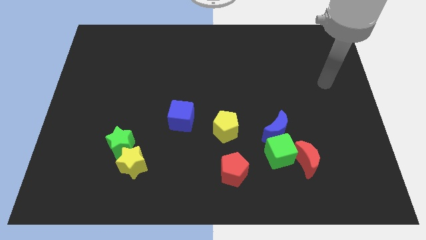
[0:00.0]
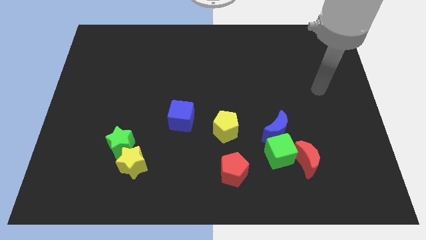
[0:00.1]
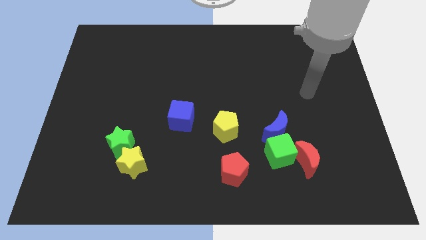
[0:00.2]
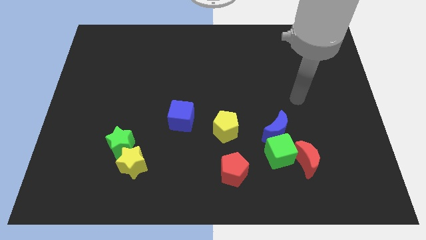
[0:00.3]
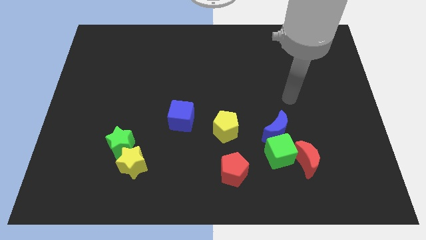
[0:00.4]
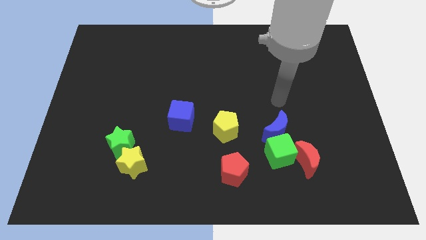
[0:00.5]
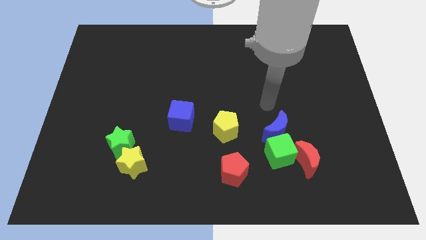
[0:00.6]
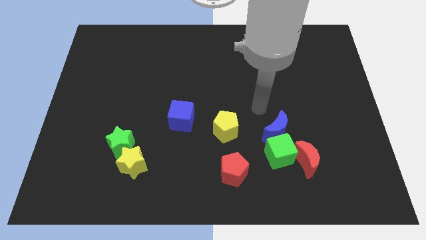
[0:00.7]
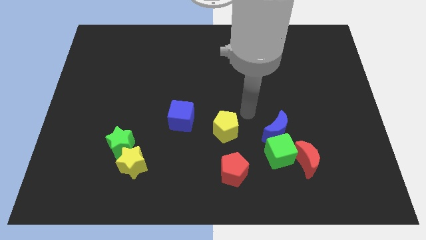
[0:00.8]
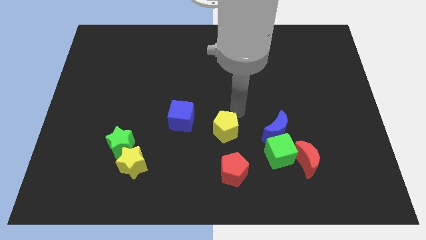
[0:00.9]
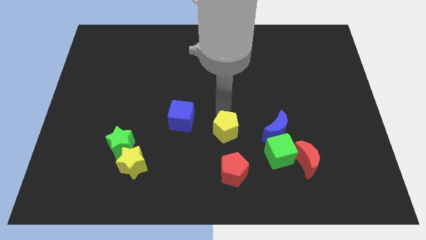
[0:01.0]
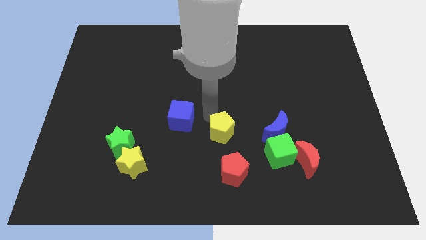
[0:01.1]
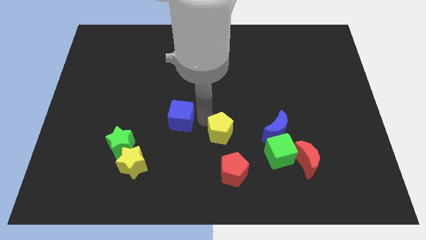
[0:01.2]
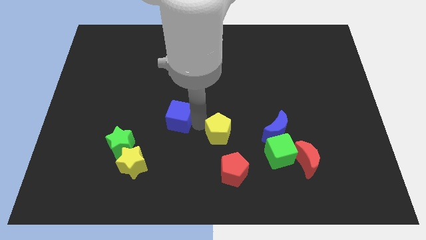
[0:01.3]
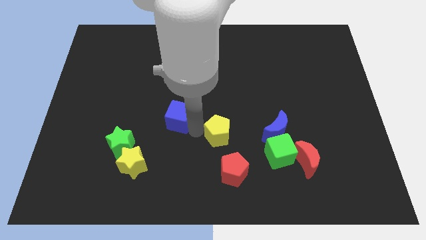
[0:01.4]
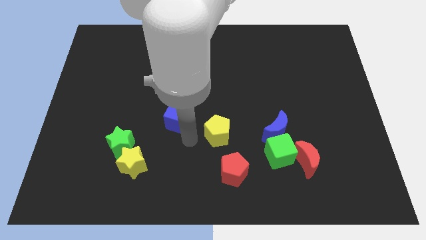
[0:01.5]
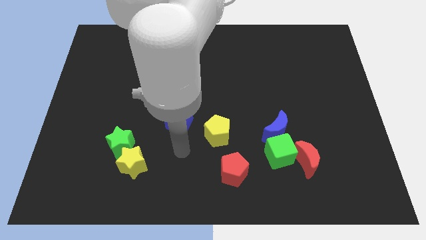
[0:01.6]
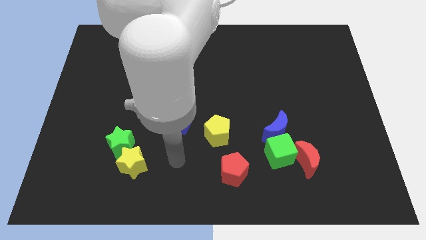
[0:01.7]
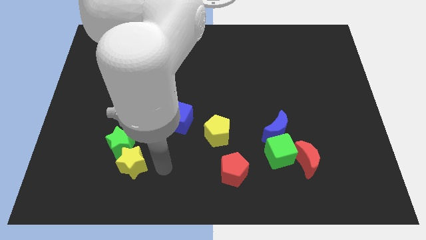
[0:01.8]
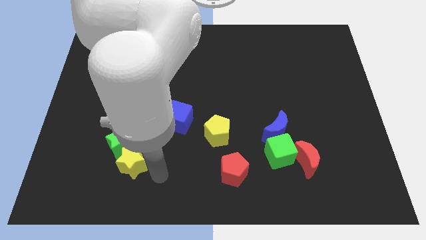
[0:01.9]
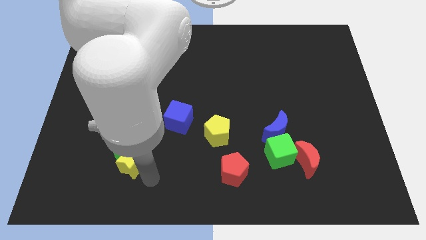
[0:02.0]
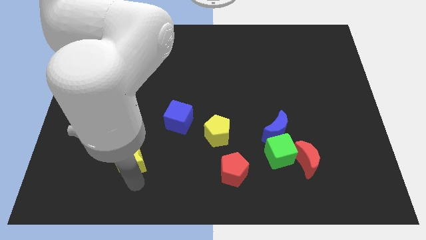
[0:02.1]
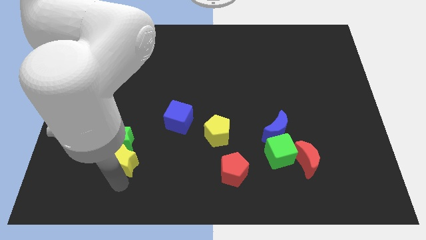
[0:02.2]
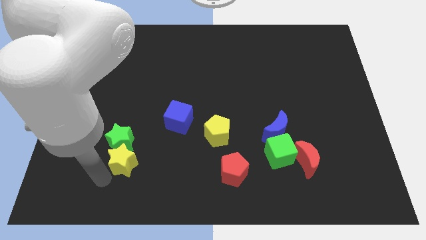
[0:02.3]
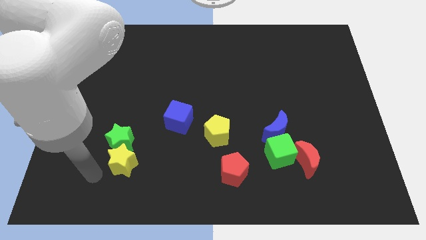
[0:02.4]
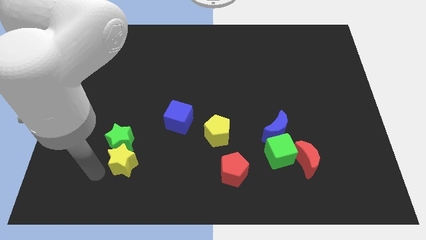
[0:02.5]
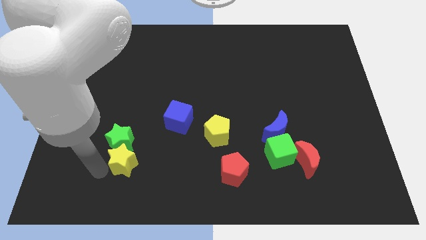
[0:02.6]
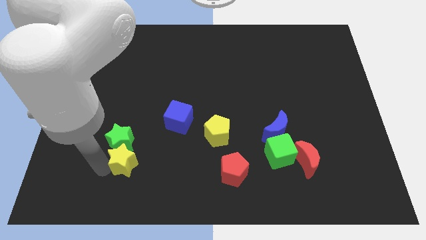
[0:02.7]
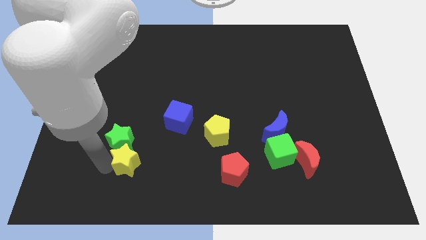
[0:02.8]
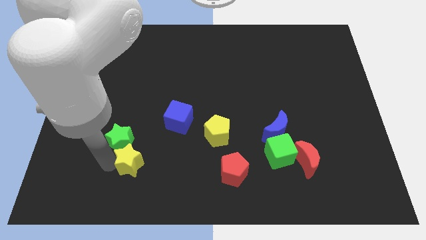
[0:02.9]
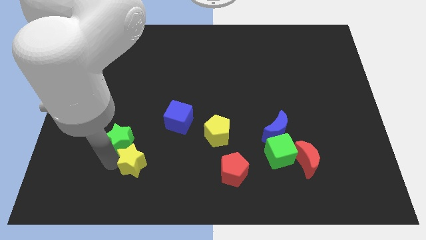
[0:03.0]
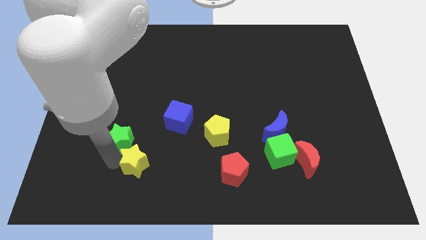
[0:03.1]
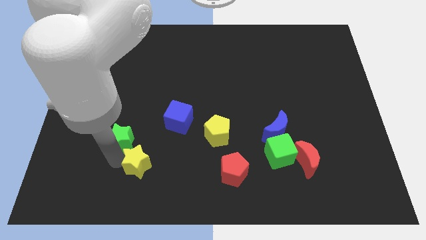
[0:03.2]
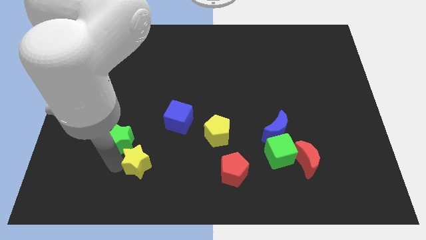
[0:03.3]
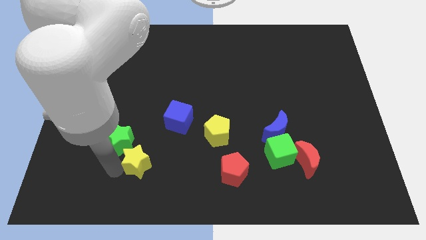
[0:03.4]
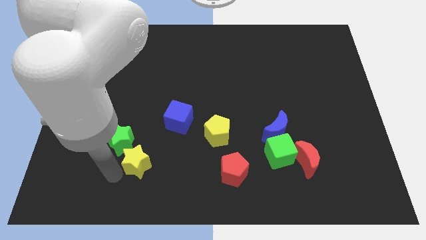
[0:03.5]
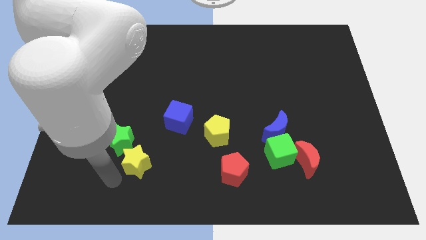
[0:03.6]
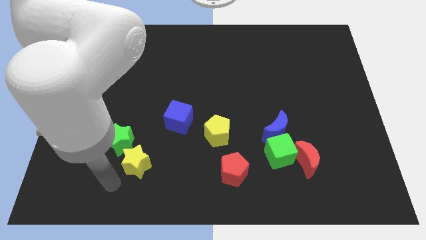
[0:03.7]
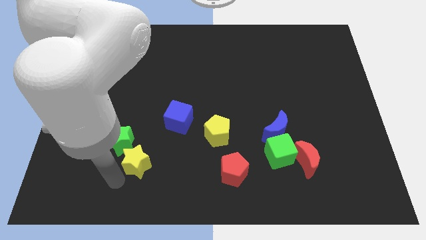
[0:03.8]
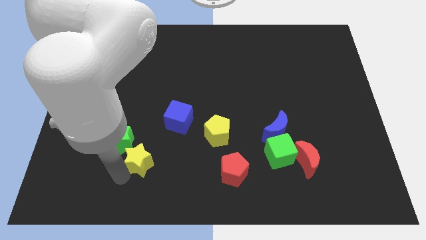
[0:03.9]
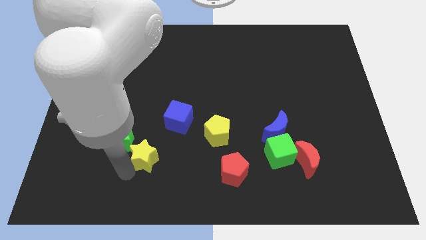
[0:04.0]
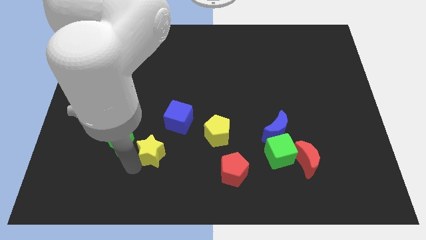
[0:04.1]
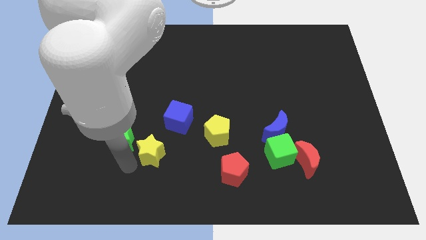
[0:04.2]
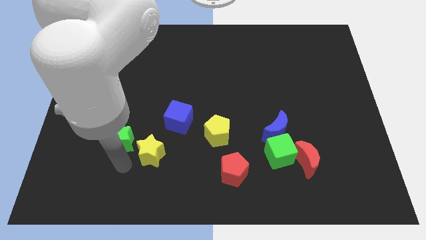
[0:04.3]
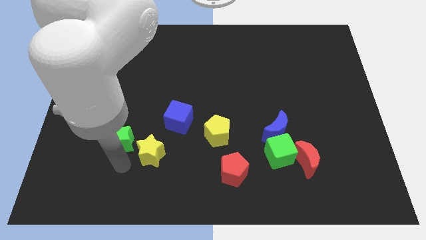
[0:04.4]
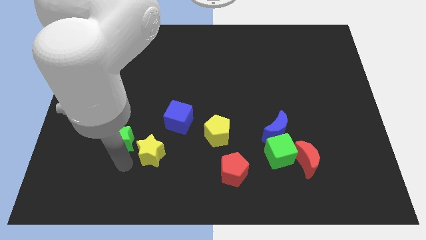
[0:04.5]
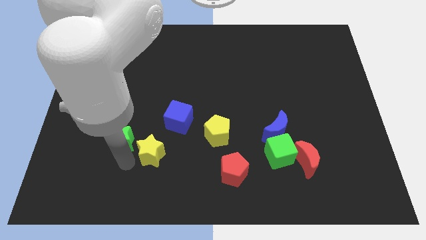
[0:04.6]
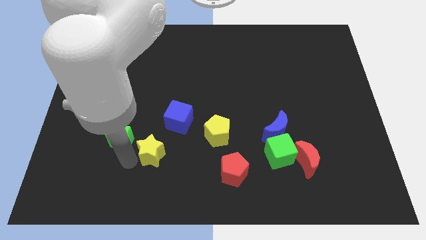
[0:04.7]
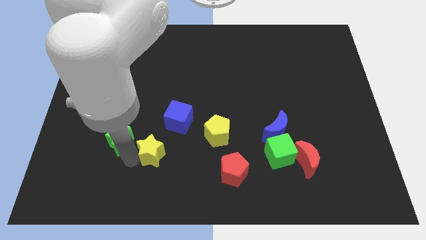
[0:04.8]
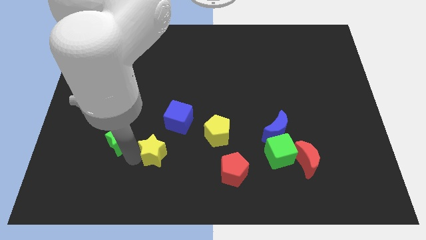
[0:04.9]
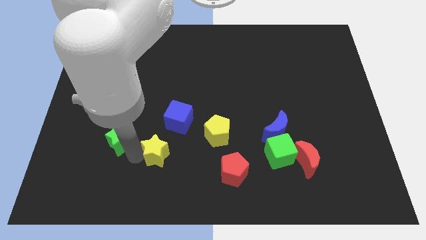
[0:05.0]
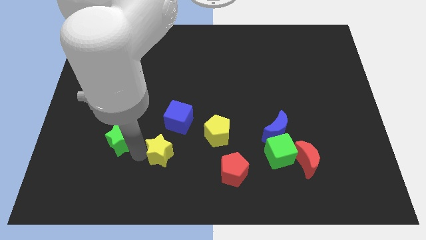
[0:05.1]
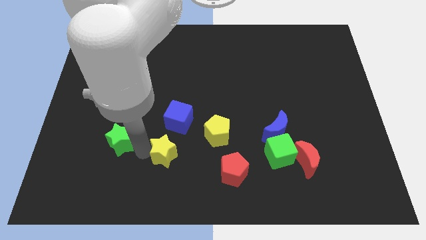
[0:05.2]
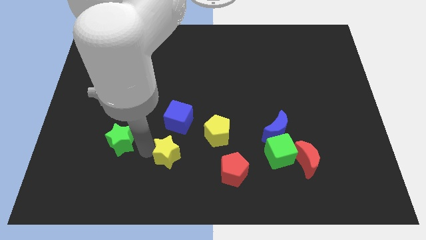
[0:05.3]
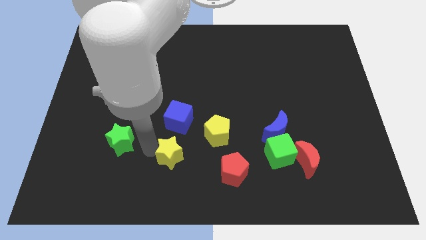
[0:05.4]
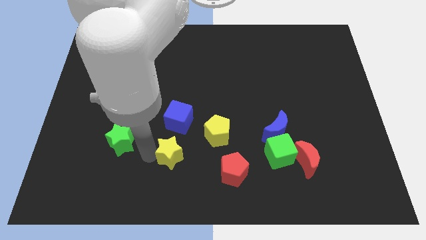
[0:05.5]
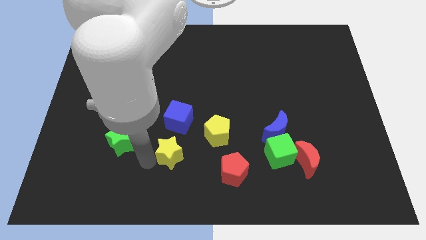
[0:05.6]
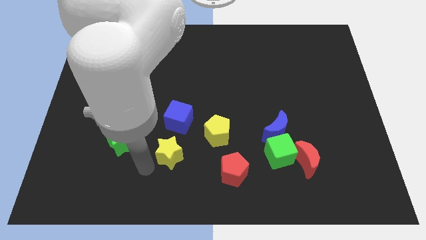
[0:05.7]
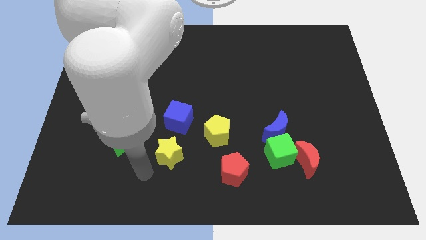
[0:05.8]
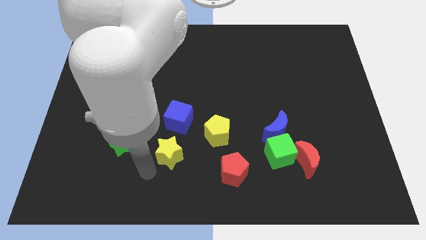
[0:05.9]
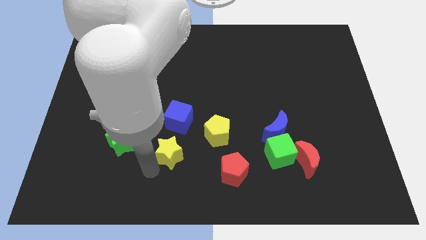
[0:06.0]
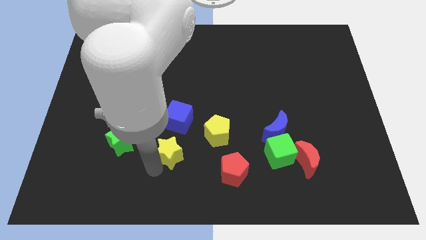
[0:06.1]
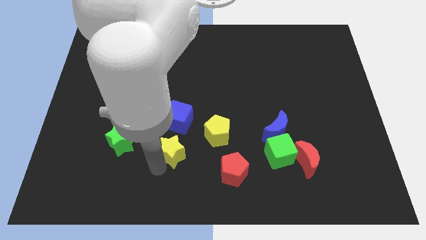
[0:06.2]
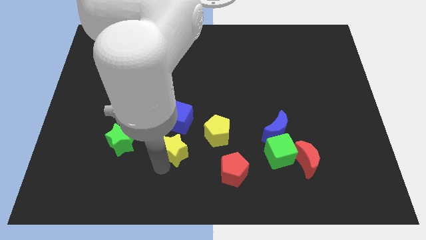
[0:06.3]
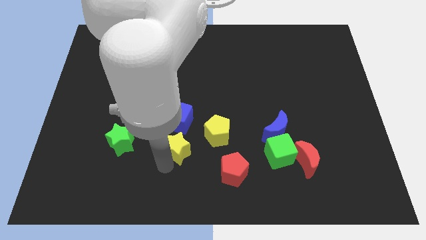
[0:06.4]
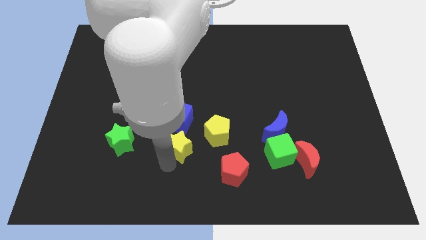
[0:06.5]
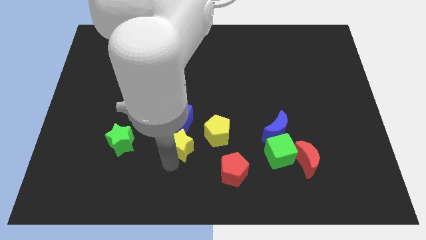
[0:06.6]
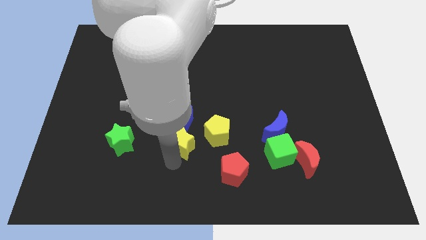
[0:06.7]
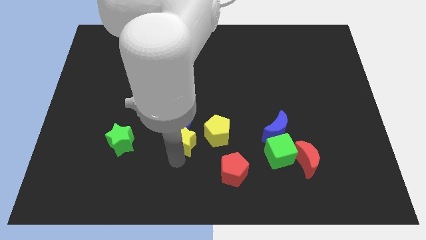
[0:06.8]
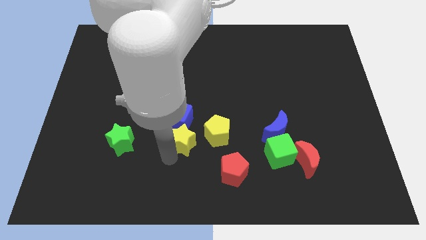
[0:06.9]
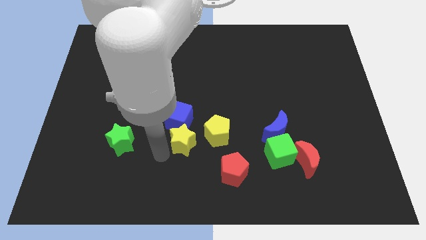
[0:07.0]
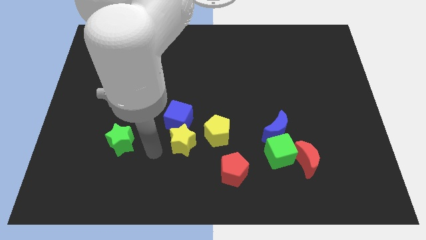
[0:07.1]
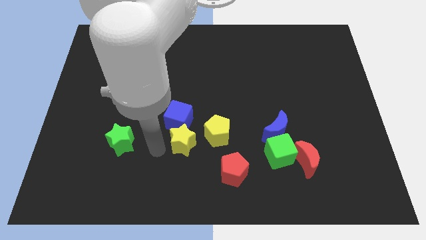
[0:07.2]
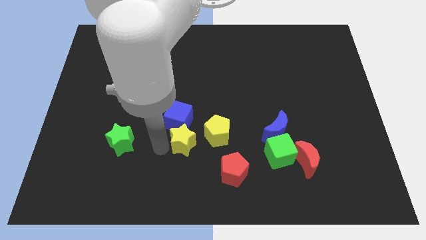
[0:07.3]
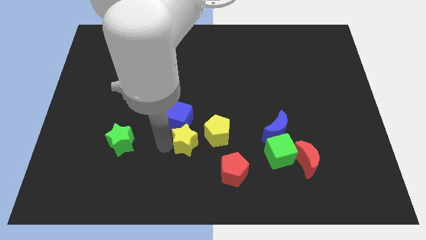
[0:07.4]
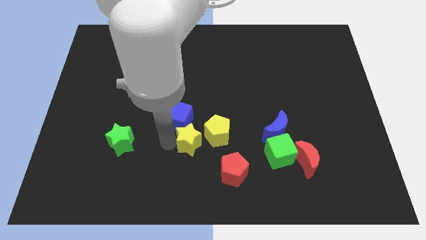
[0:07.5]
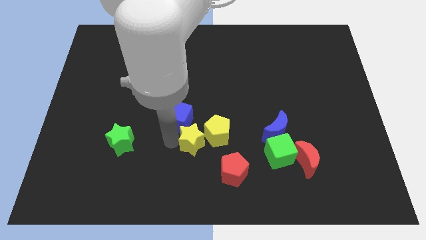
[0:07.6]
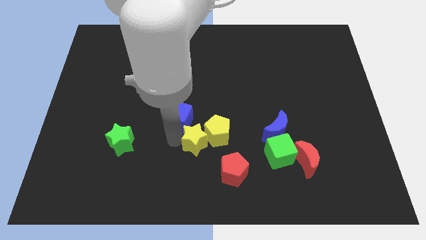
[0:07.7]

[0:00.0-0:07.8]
put the yellow star to the yellow pentagon

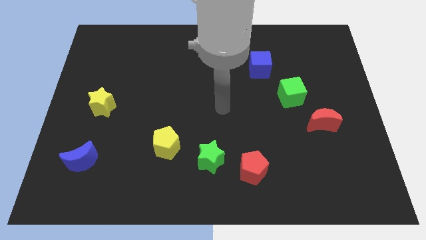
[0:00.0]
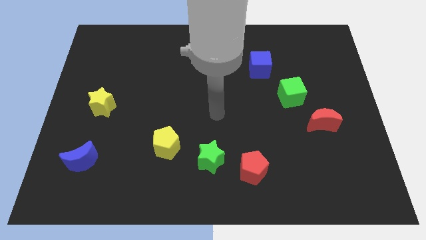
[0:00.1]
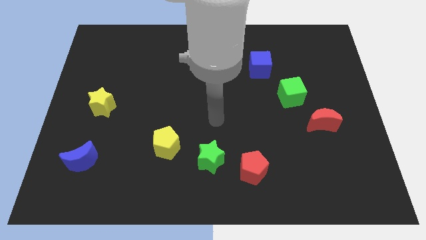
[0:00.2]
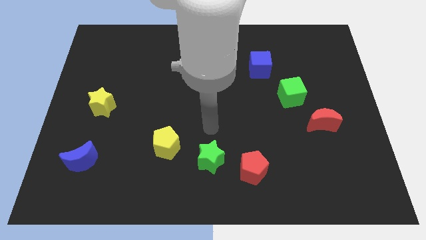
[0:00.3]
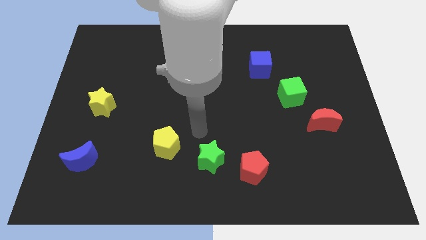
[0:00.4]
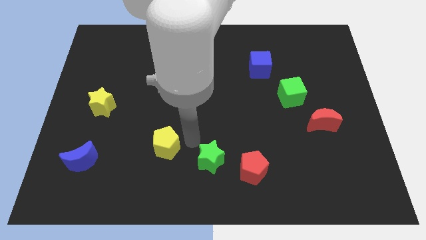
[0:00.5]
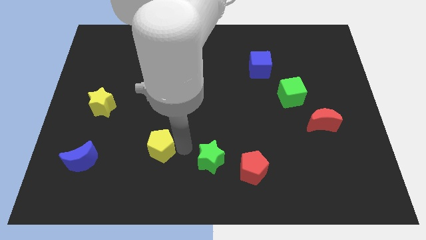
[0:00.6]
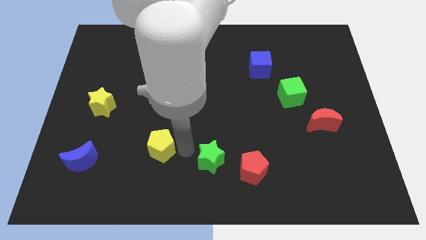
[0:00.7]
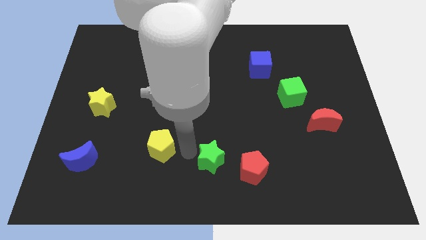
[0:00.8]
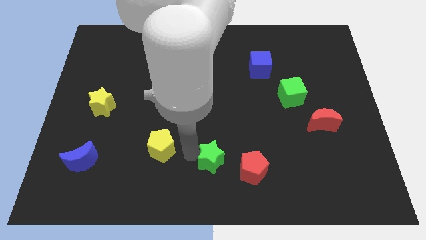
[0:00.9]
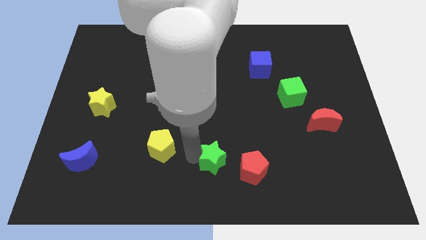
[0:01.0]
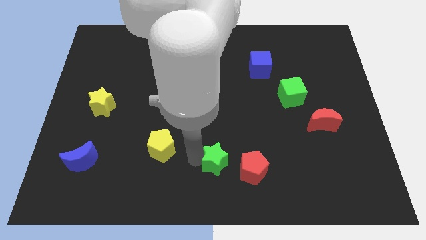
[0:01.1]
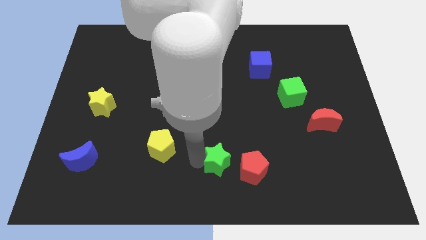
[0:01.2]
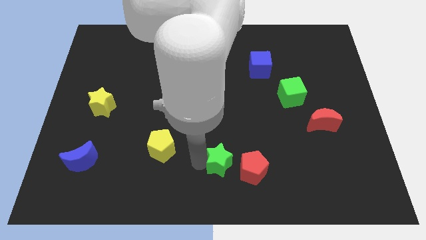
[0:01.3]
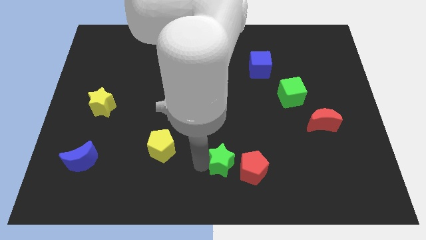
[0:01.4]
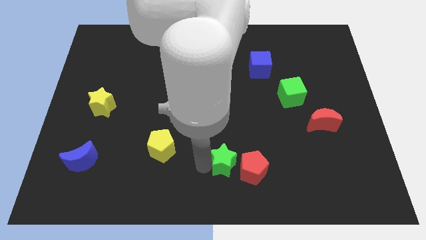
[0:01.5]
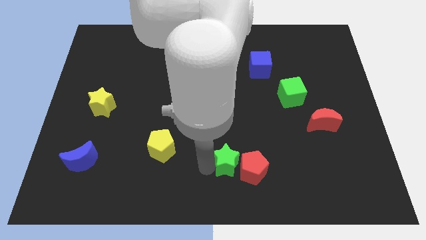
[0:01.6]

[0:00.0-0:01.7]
move the green star close to the red pentagon
